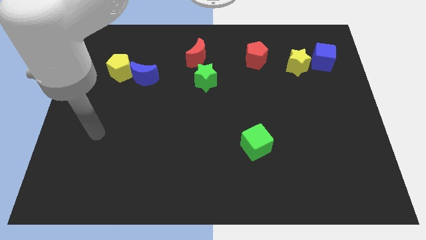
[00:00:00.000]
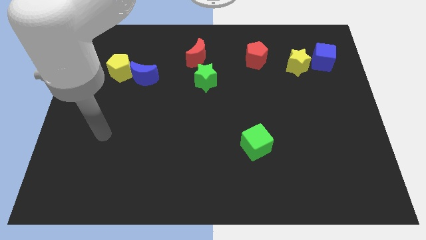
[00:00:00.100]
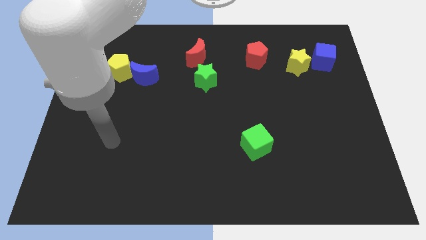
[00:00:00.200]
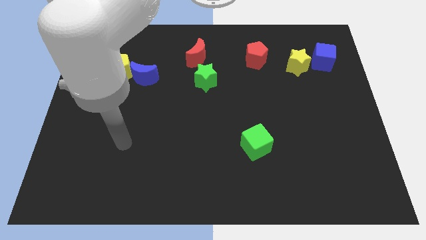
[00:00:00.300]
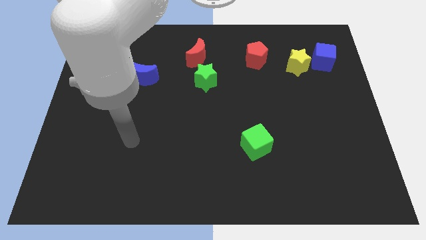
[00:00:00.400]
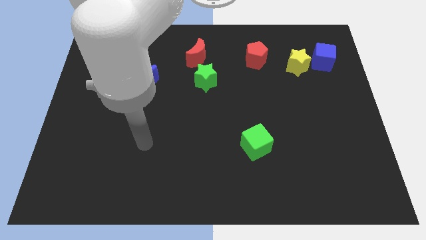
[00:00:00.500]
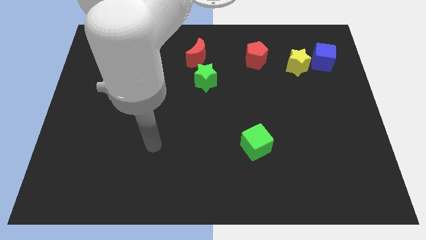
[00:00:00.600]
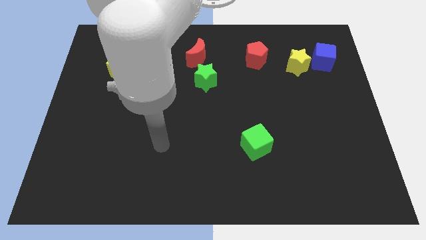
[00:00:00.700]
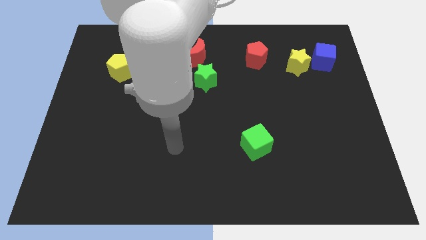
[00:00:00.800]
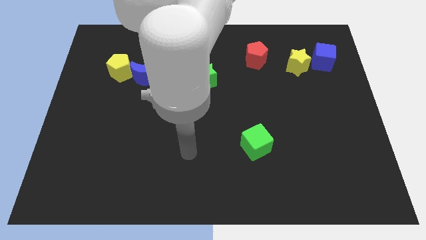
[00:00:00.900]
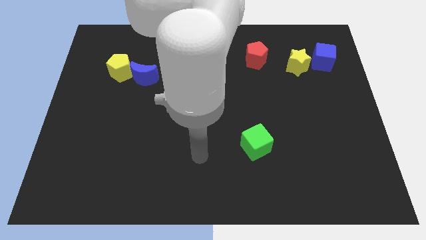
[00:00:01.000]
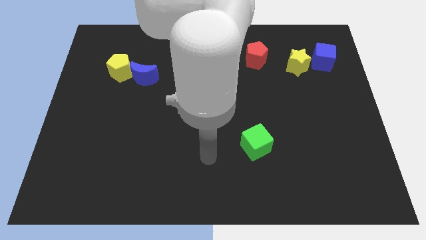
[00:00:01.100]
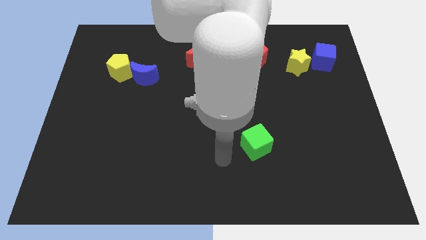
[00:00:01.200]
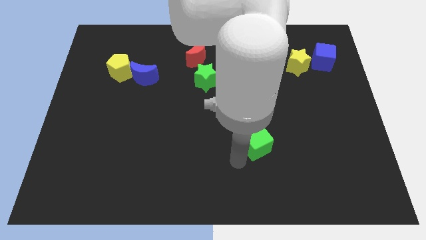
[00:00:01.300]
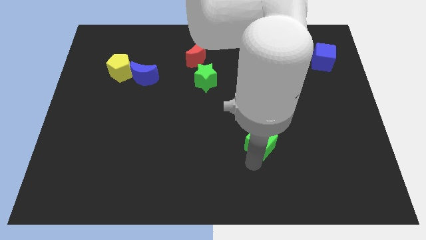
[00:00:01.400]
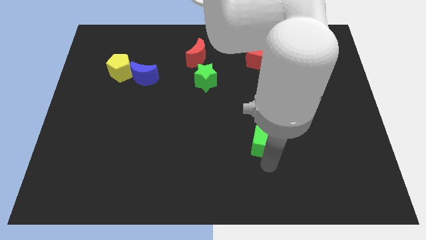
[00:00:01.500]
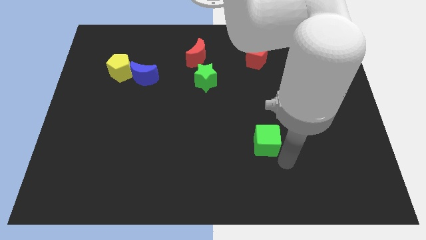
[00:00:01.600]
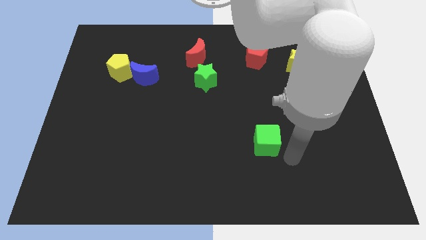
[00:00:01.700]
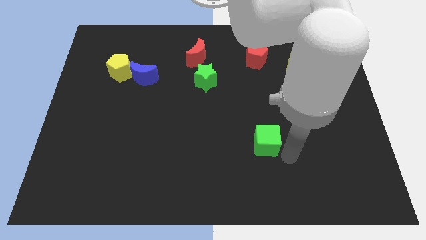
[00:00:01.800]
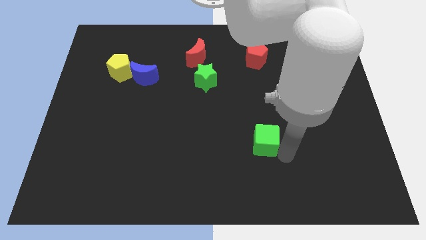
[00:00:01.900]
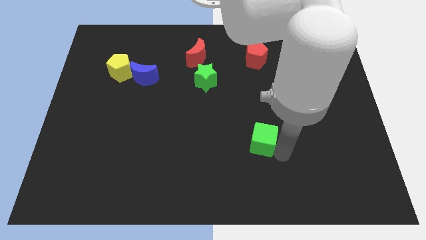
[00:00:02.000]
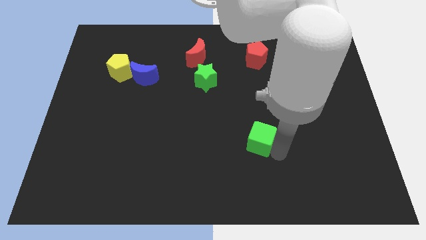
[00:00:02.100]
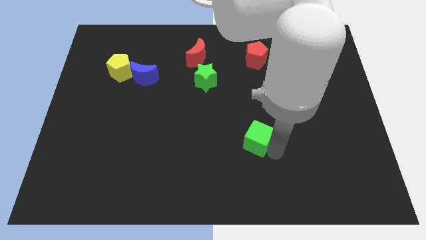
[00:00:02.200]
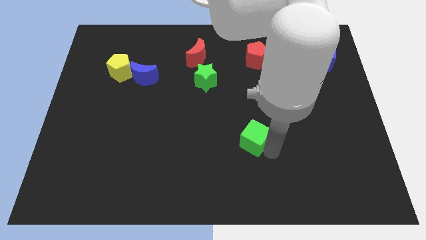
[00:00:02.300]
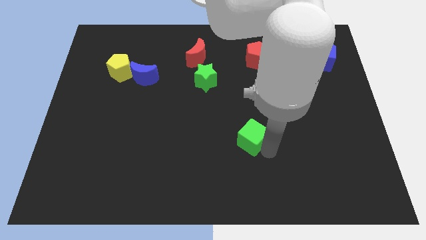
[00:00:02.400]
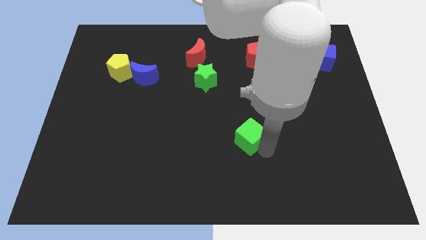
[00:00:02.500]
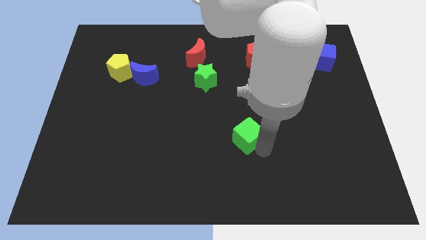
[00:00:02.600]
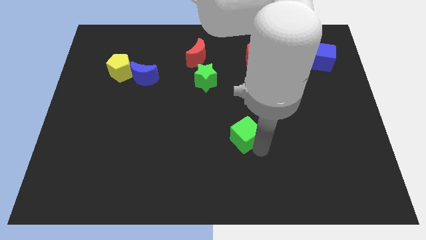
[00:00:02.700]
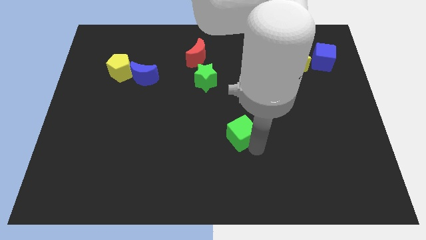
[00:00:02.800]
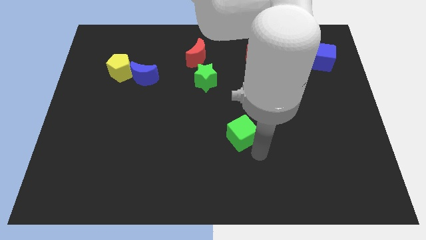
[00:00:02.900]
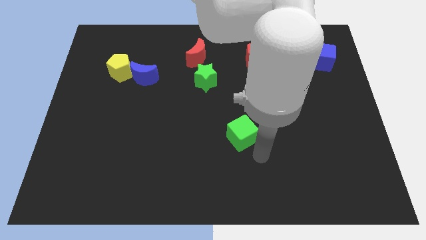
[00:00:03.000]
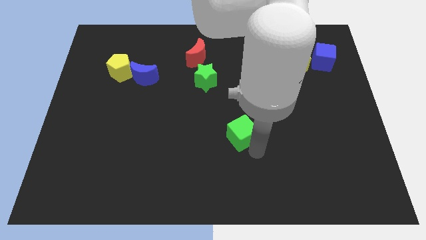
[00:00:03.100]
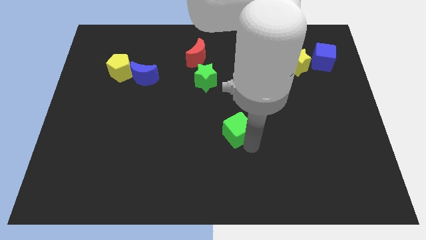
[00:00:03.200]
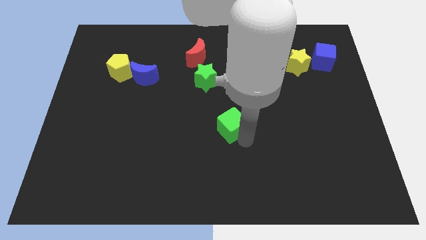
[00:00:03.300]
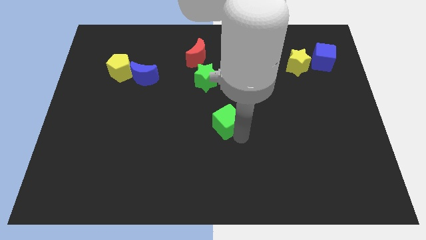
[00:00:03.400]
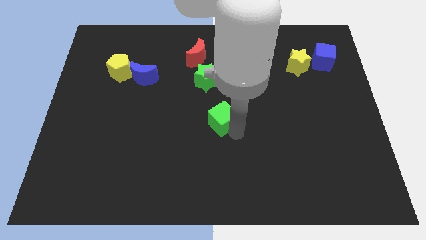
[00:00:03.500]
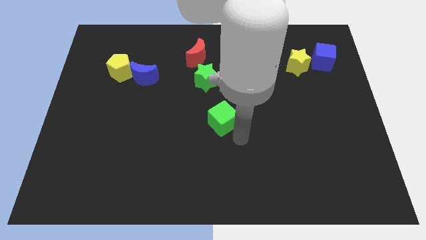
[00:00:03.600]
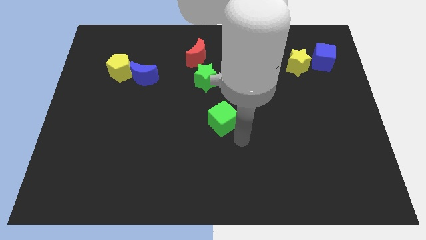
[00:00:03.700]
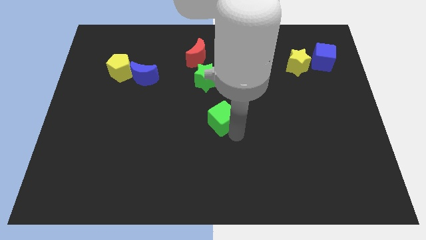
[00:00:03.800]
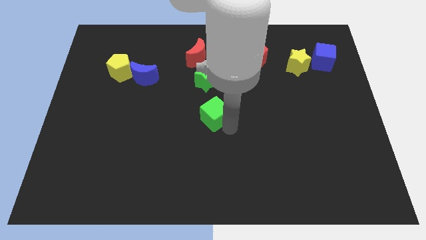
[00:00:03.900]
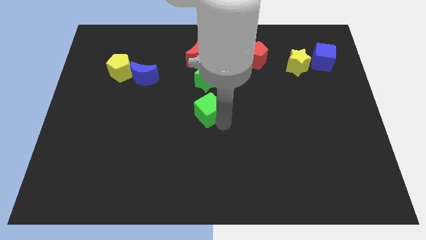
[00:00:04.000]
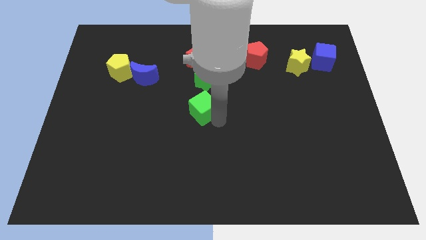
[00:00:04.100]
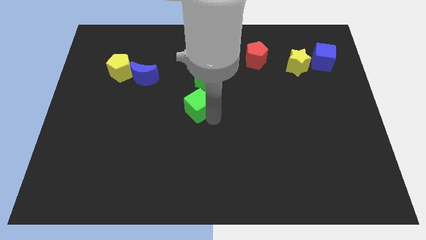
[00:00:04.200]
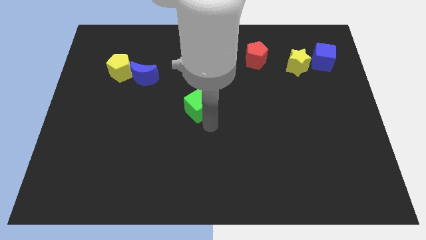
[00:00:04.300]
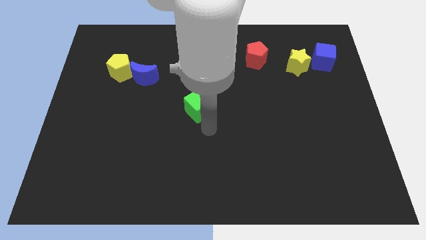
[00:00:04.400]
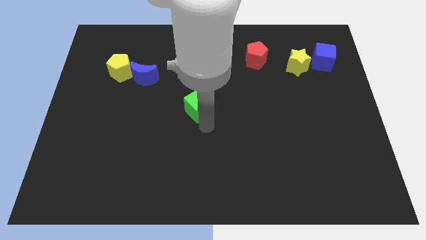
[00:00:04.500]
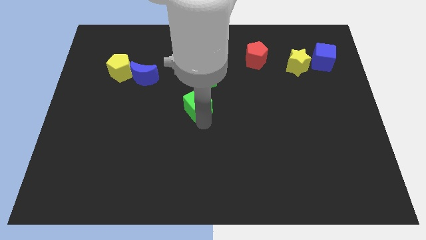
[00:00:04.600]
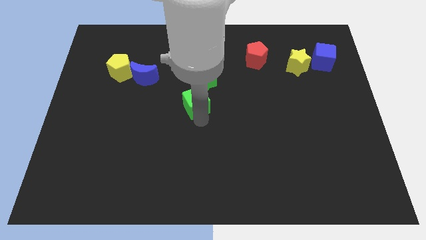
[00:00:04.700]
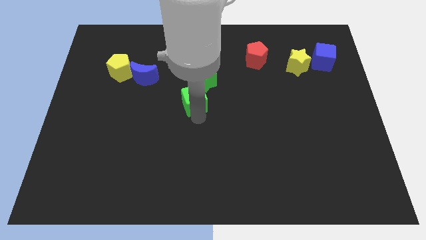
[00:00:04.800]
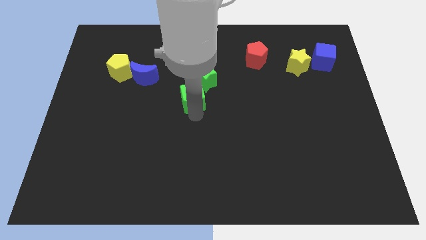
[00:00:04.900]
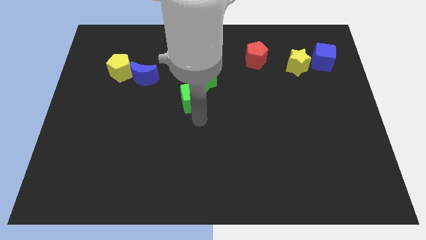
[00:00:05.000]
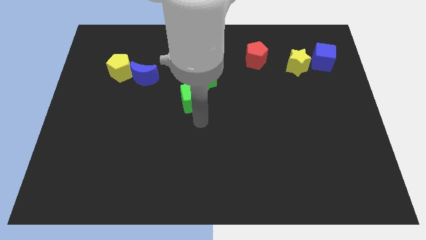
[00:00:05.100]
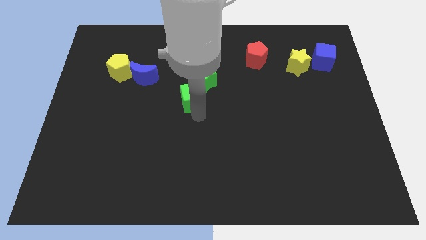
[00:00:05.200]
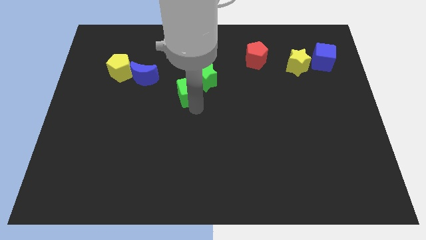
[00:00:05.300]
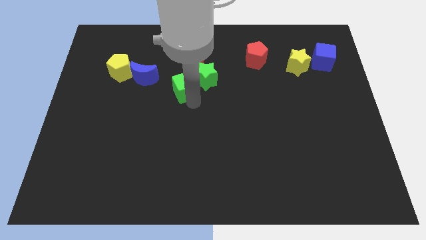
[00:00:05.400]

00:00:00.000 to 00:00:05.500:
put the green cube to the right of the blue moon
